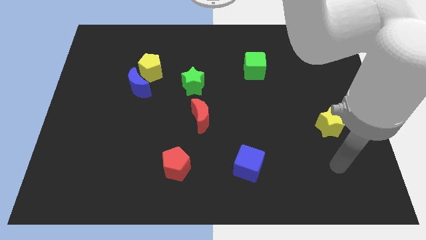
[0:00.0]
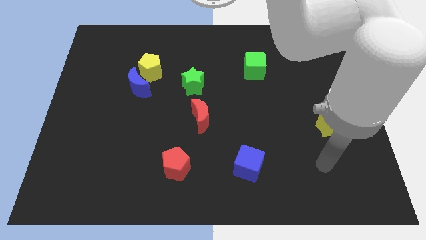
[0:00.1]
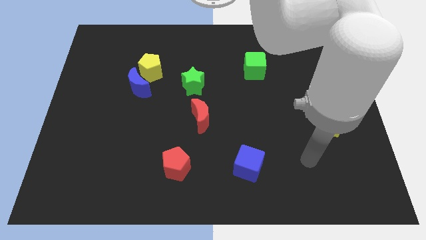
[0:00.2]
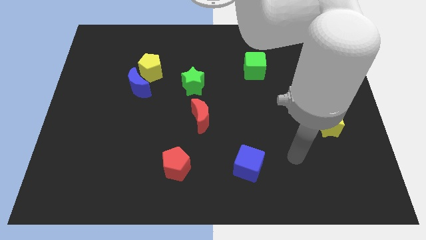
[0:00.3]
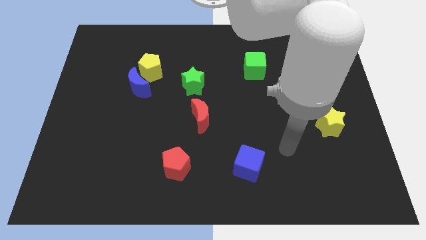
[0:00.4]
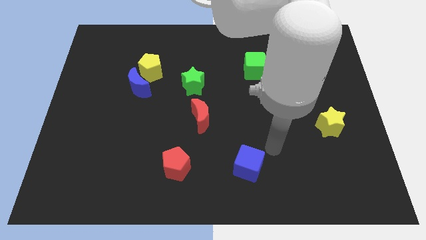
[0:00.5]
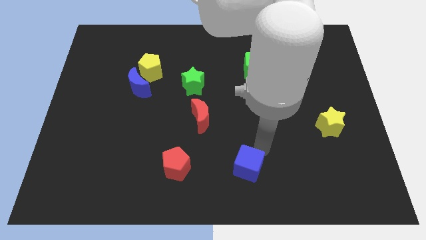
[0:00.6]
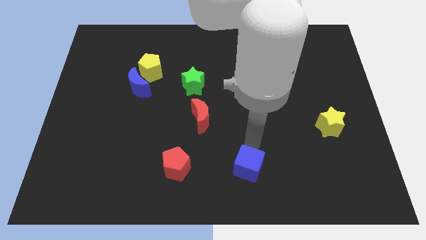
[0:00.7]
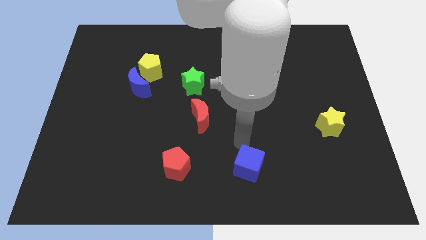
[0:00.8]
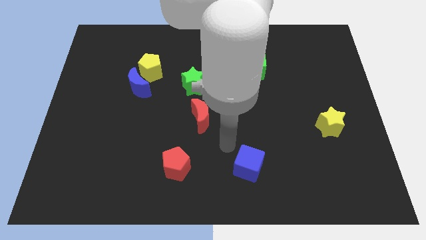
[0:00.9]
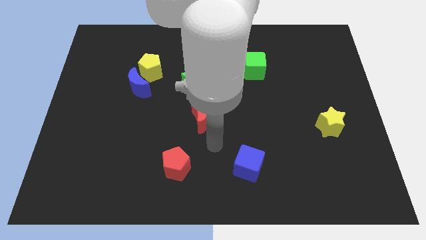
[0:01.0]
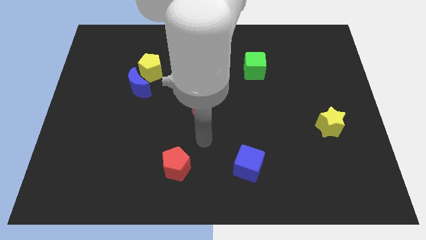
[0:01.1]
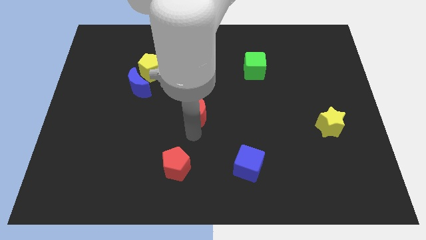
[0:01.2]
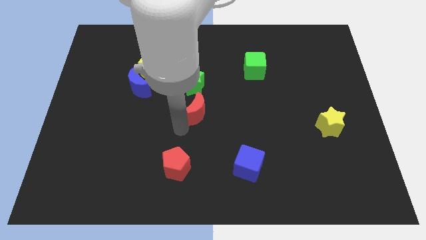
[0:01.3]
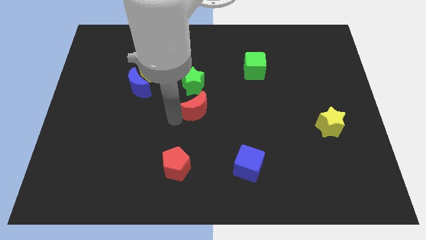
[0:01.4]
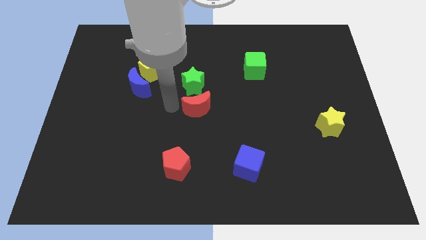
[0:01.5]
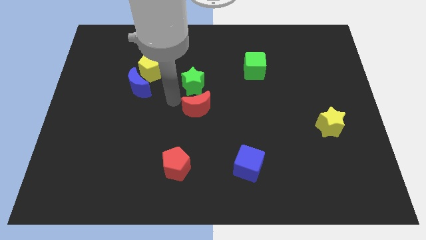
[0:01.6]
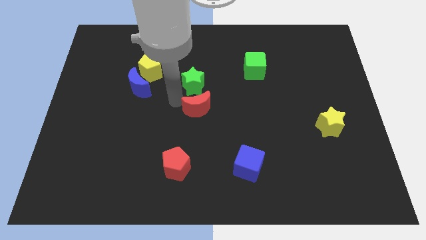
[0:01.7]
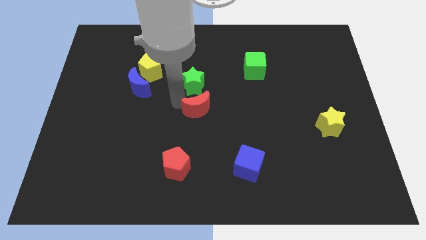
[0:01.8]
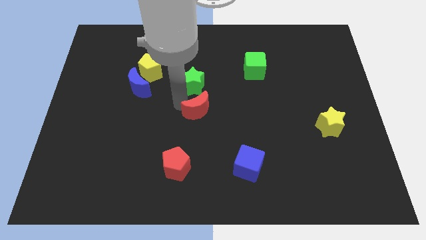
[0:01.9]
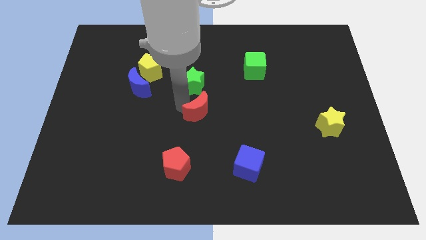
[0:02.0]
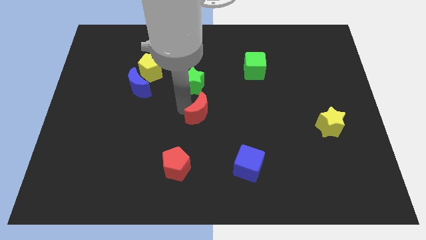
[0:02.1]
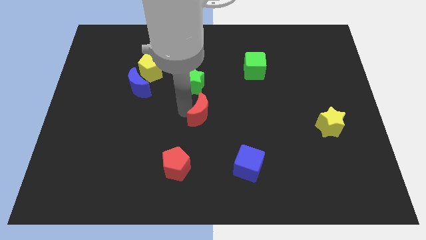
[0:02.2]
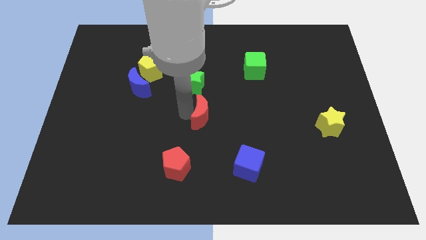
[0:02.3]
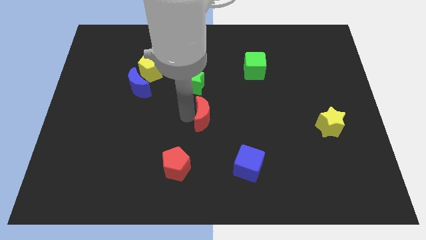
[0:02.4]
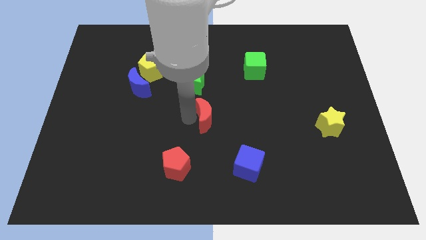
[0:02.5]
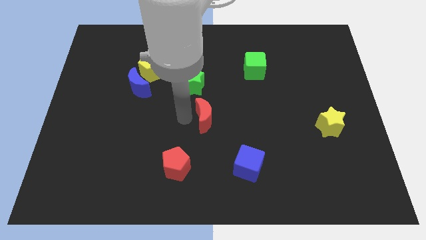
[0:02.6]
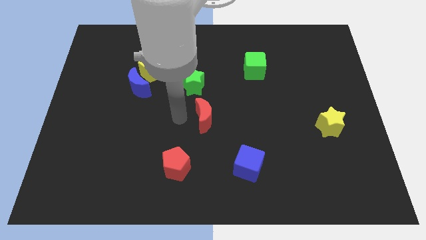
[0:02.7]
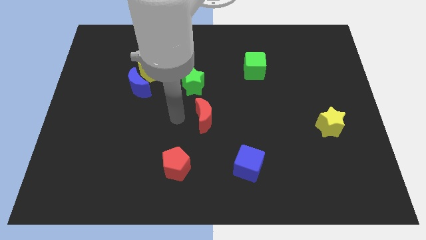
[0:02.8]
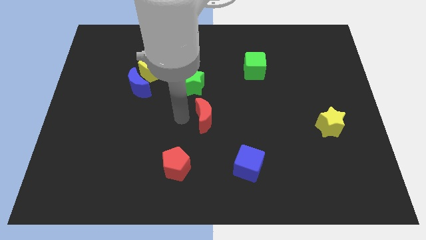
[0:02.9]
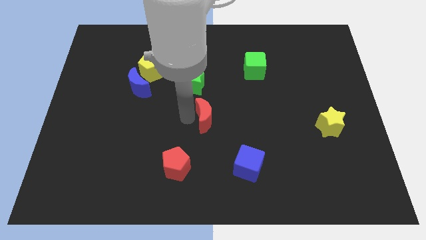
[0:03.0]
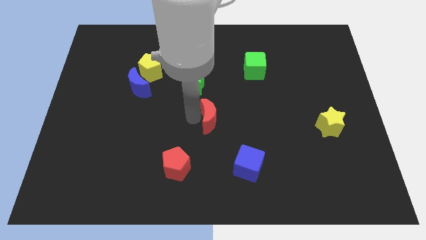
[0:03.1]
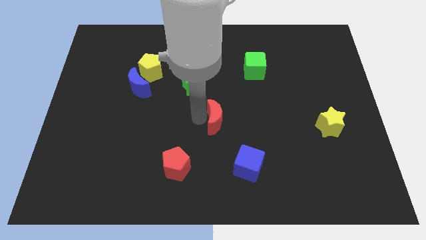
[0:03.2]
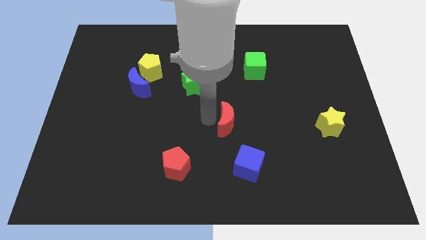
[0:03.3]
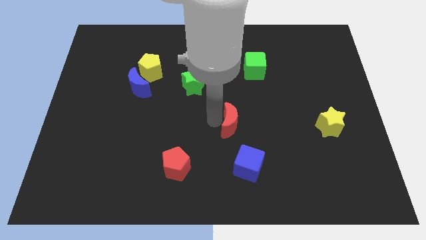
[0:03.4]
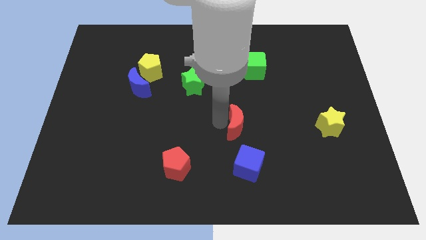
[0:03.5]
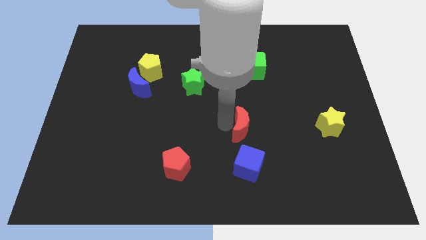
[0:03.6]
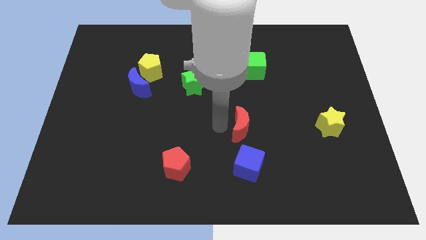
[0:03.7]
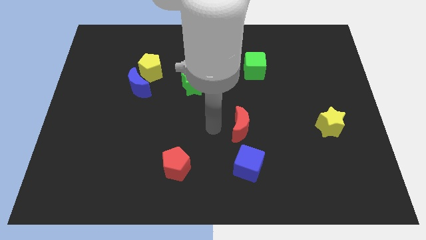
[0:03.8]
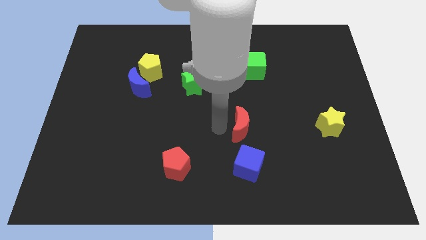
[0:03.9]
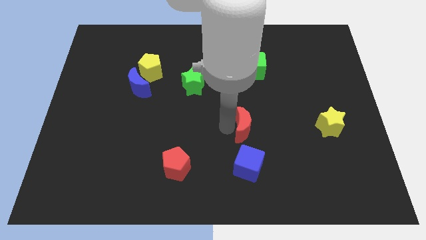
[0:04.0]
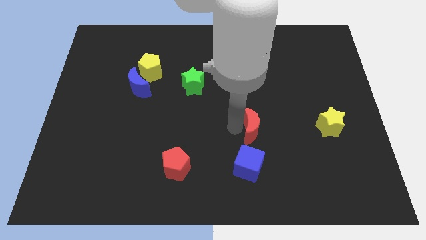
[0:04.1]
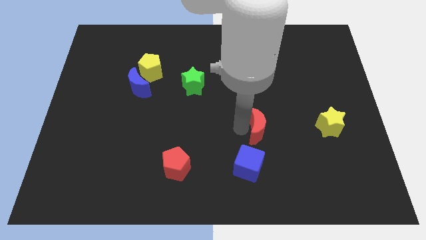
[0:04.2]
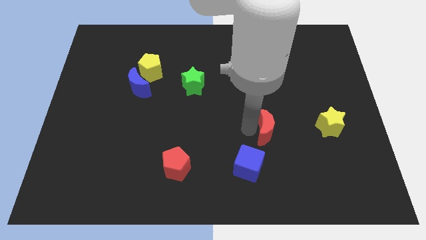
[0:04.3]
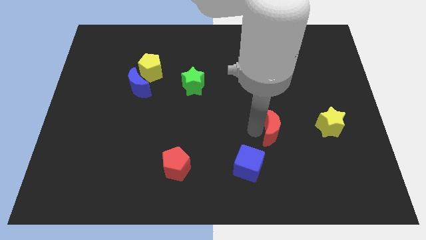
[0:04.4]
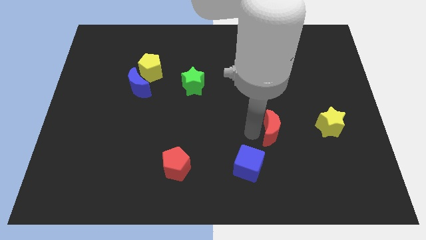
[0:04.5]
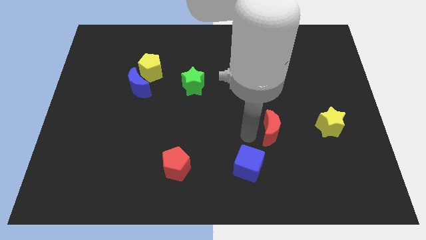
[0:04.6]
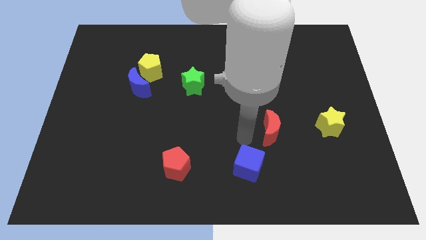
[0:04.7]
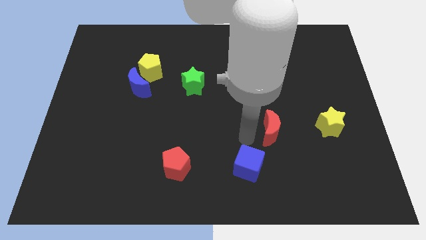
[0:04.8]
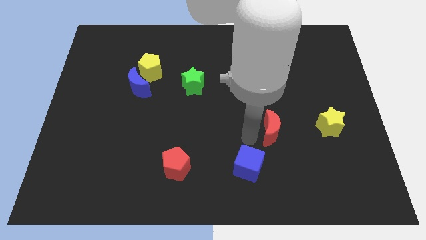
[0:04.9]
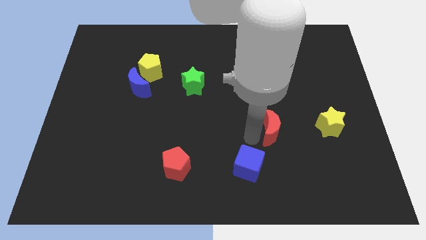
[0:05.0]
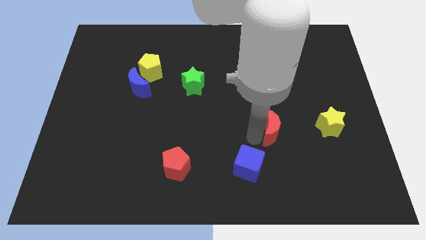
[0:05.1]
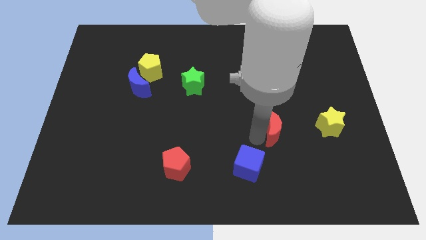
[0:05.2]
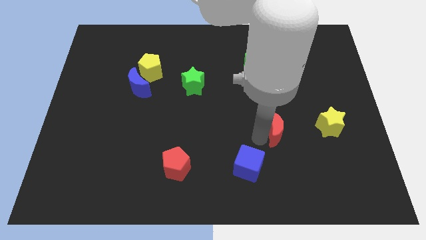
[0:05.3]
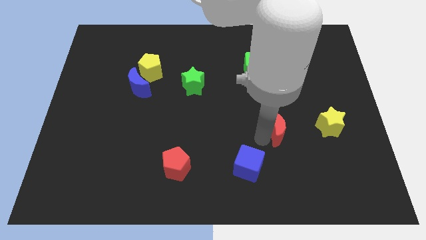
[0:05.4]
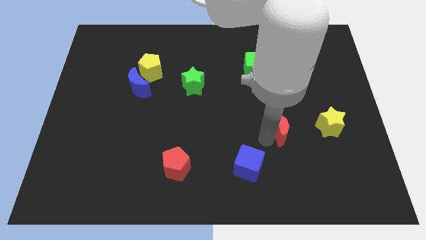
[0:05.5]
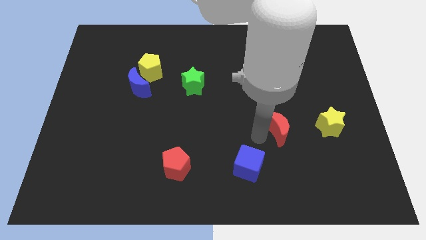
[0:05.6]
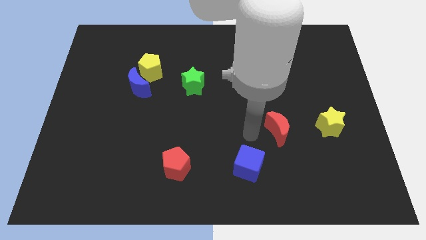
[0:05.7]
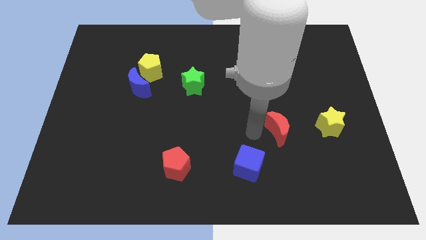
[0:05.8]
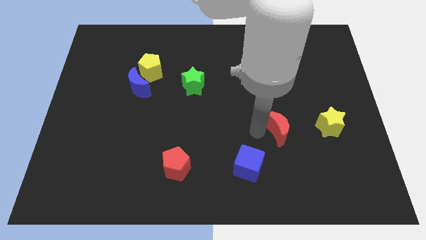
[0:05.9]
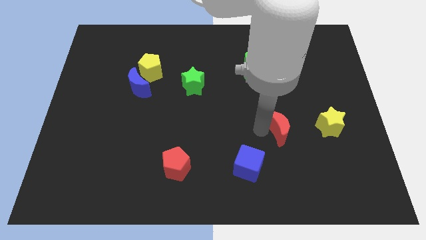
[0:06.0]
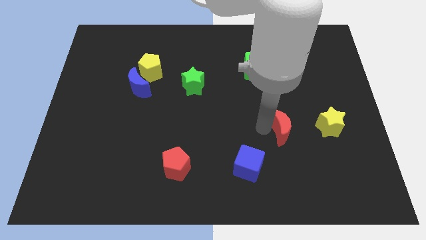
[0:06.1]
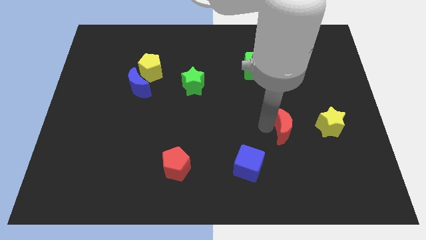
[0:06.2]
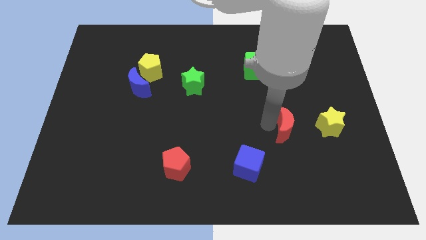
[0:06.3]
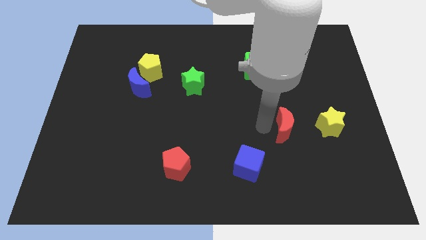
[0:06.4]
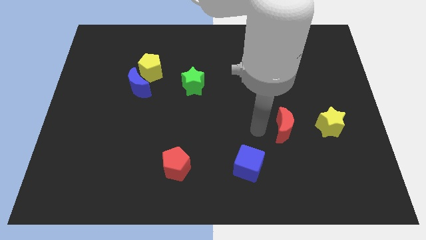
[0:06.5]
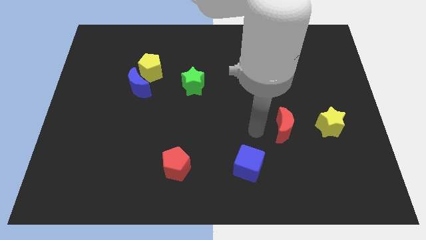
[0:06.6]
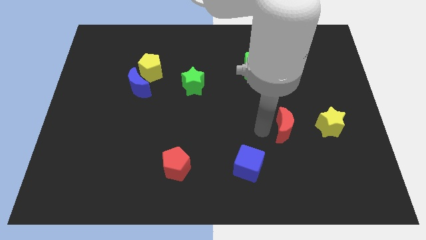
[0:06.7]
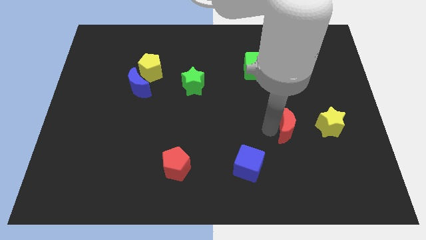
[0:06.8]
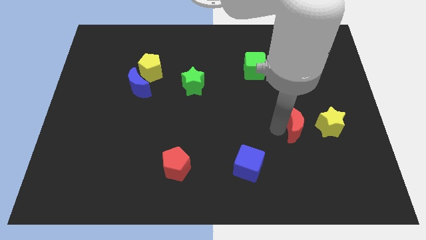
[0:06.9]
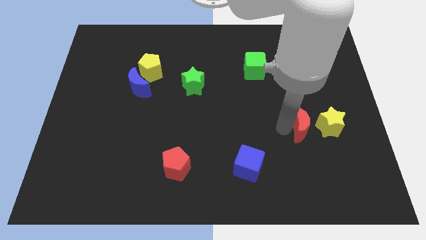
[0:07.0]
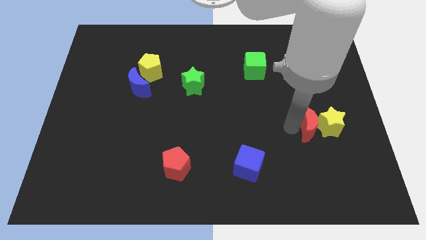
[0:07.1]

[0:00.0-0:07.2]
push the red moon to the yellow star
